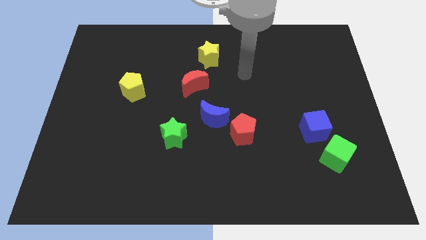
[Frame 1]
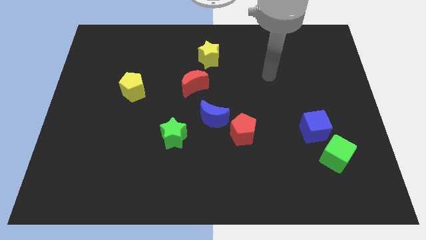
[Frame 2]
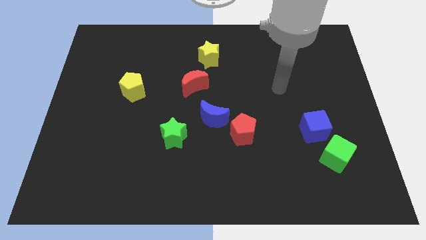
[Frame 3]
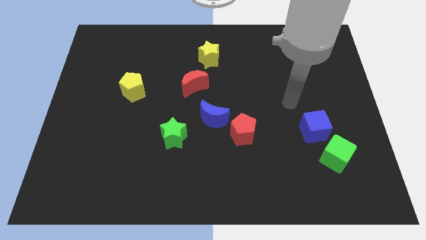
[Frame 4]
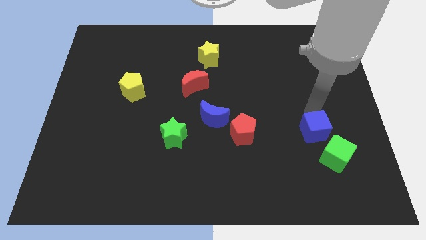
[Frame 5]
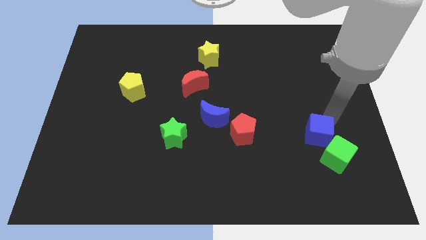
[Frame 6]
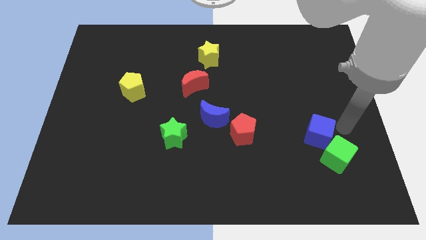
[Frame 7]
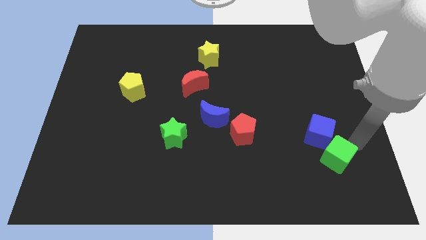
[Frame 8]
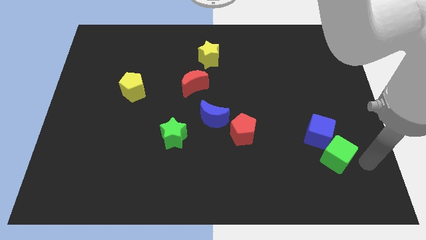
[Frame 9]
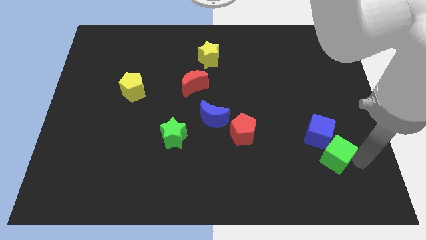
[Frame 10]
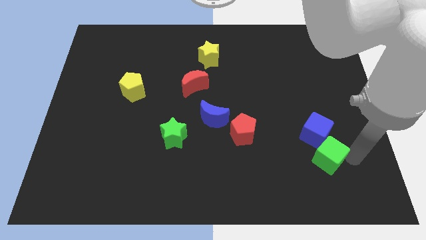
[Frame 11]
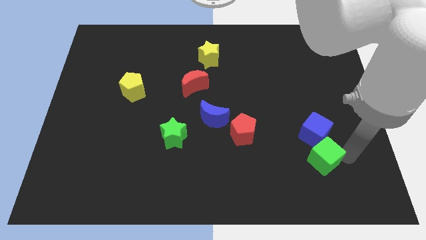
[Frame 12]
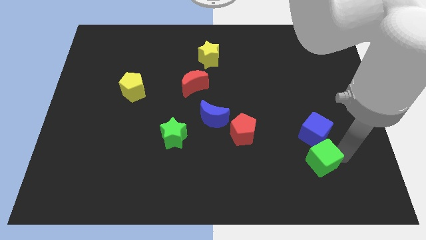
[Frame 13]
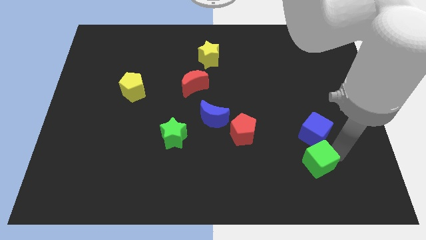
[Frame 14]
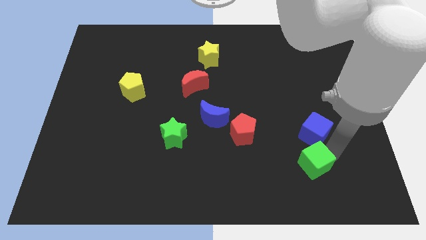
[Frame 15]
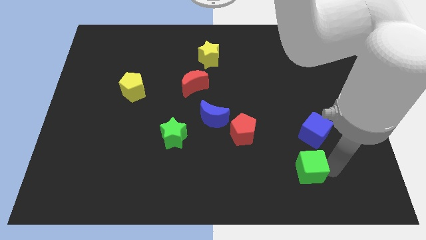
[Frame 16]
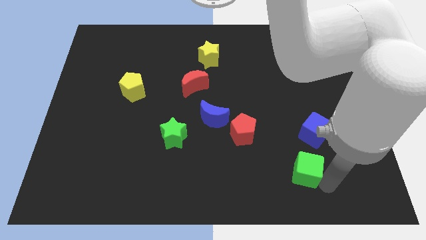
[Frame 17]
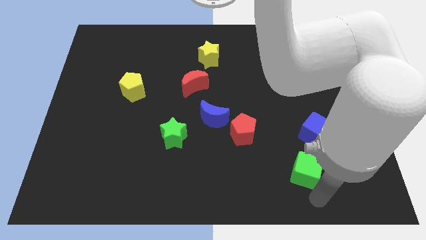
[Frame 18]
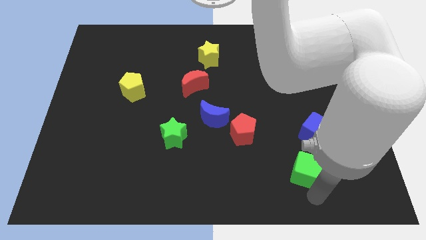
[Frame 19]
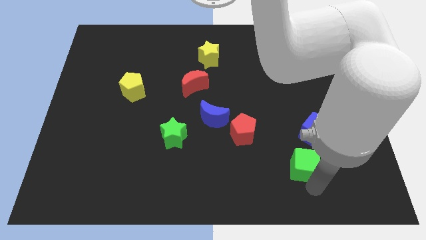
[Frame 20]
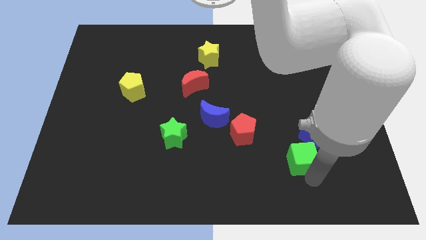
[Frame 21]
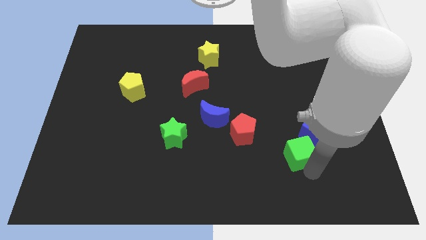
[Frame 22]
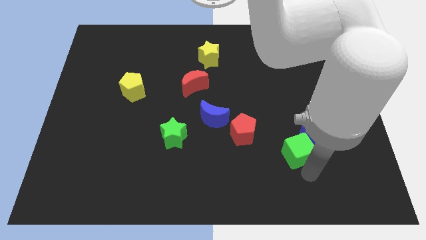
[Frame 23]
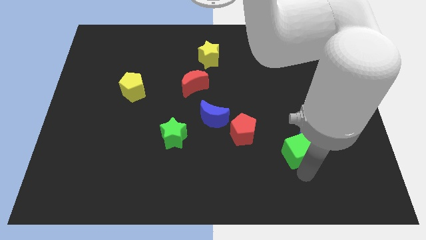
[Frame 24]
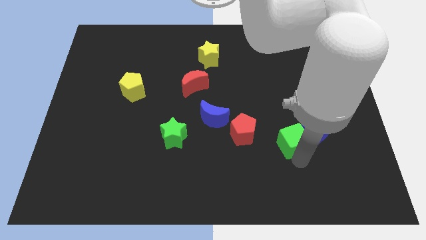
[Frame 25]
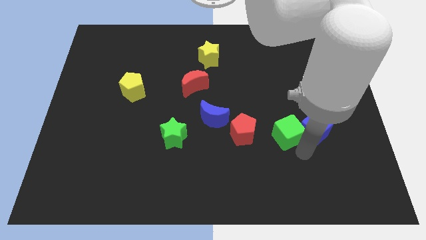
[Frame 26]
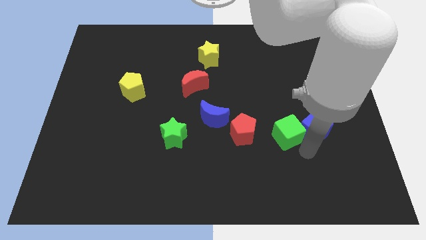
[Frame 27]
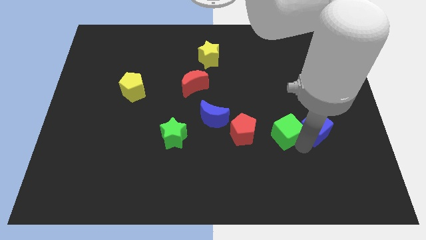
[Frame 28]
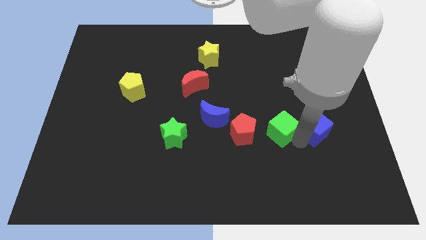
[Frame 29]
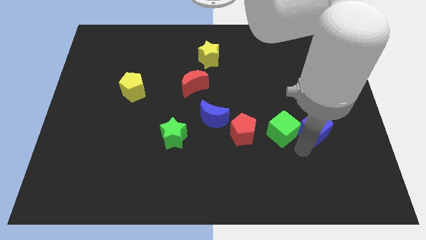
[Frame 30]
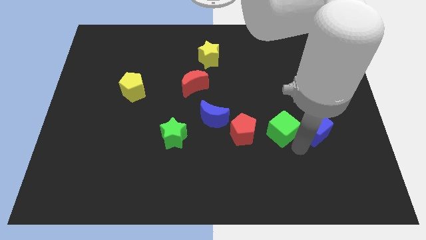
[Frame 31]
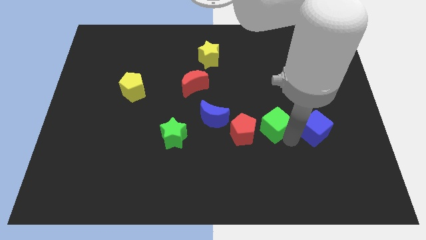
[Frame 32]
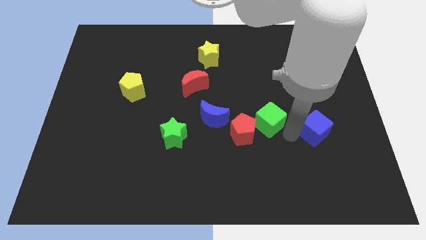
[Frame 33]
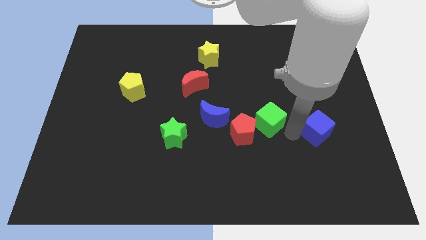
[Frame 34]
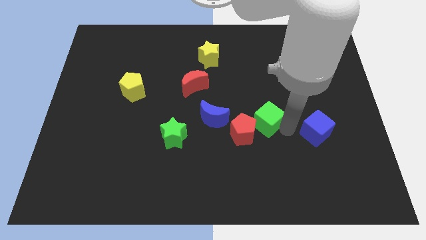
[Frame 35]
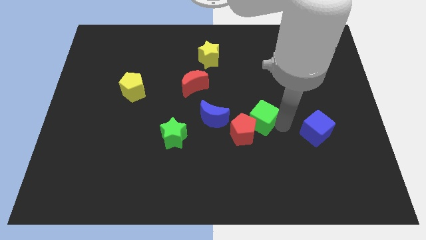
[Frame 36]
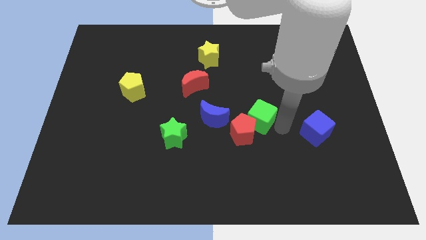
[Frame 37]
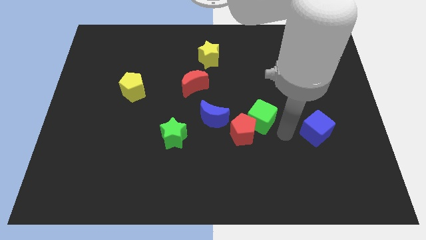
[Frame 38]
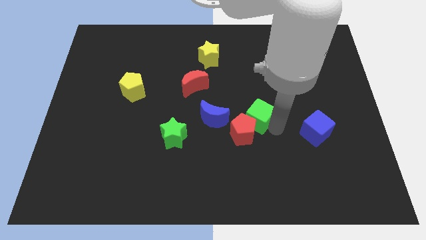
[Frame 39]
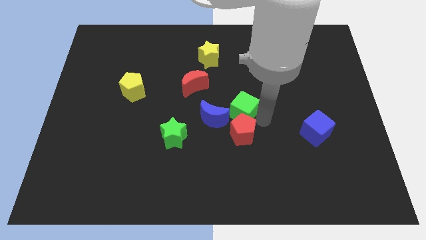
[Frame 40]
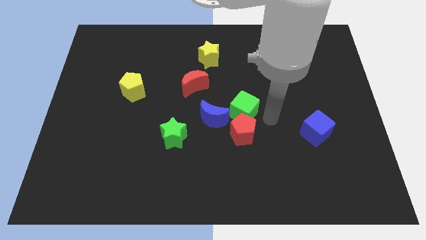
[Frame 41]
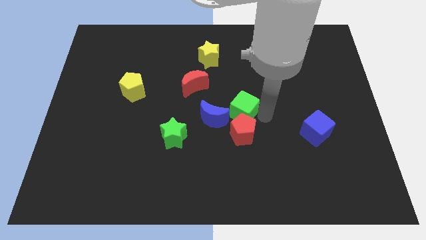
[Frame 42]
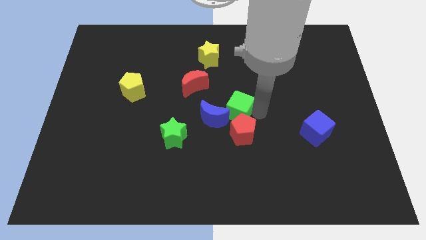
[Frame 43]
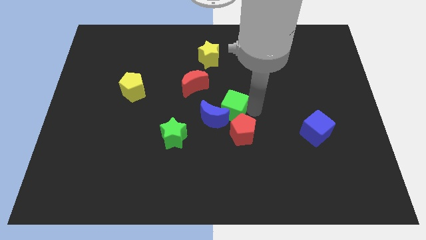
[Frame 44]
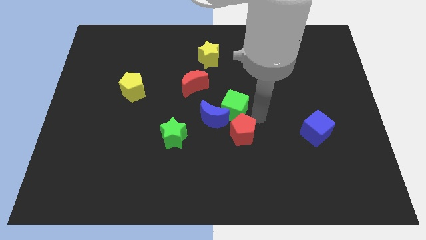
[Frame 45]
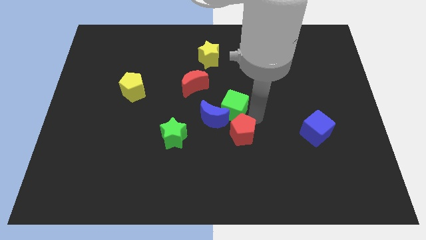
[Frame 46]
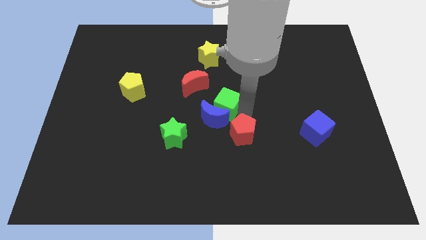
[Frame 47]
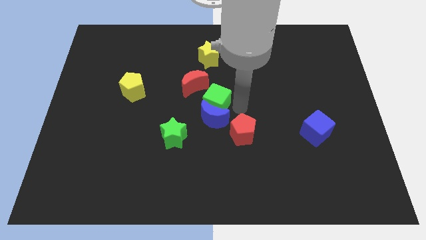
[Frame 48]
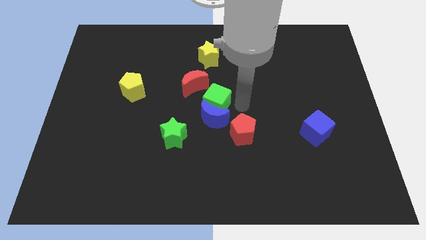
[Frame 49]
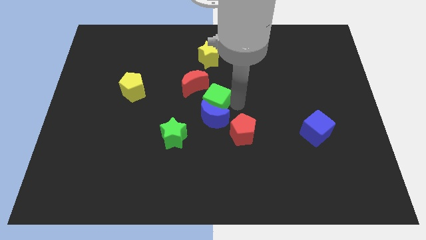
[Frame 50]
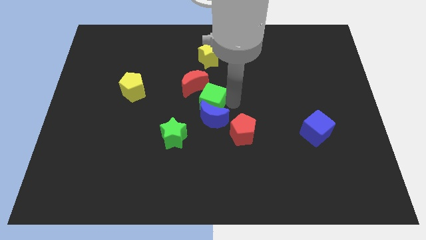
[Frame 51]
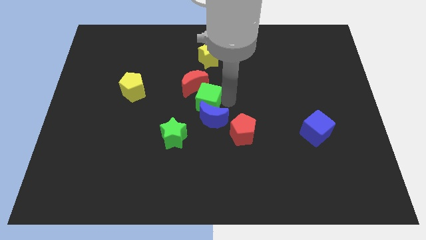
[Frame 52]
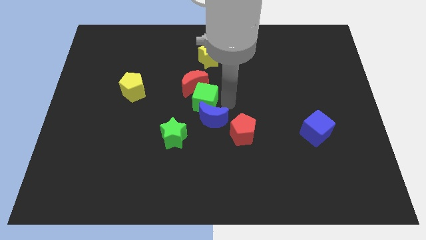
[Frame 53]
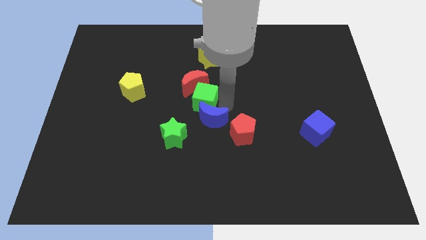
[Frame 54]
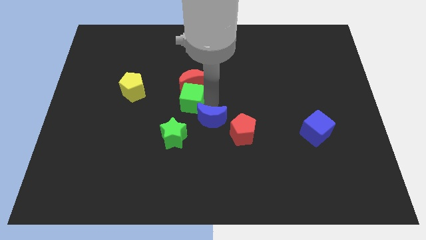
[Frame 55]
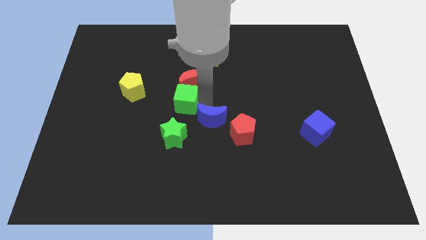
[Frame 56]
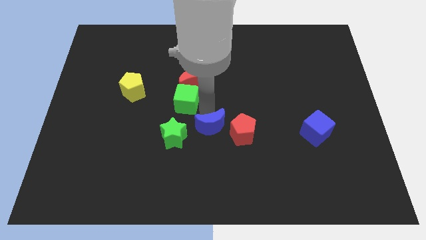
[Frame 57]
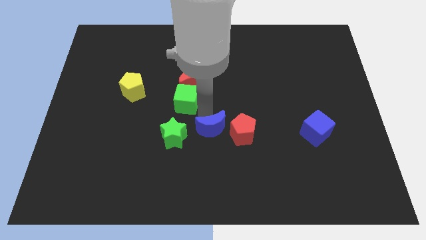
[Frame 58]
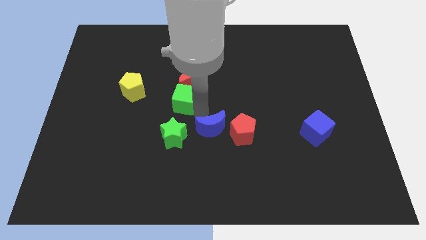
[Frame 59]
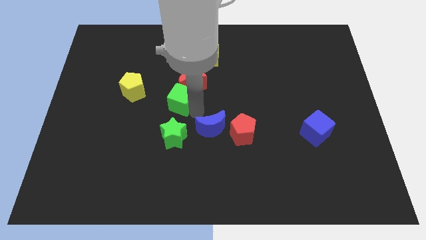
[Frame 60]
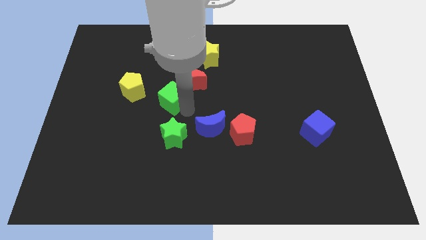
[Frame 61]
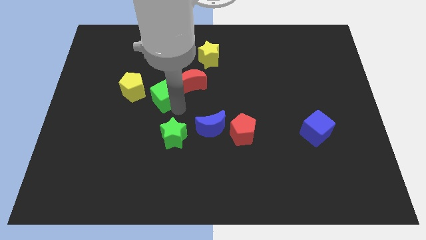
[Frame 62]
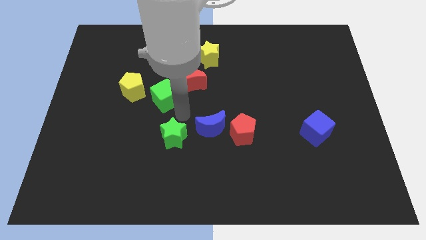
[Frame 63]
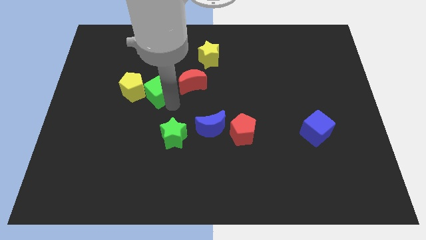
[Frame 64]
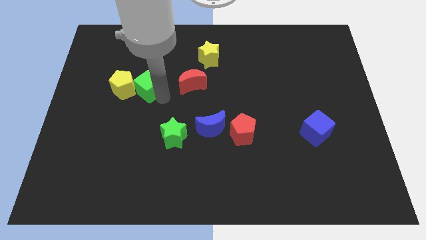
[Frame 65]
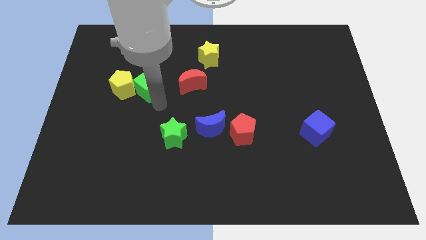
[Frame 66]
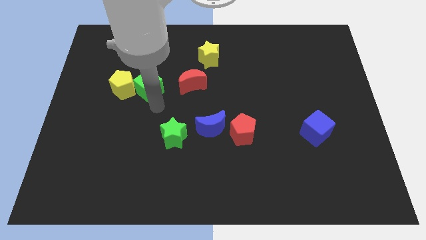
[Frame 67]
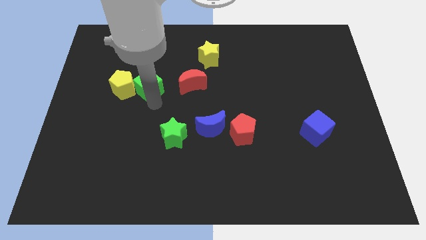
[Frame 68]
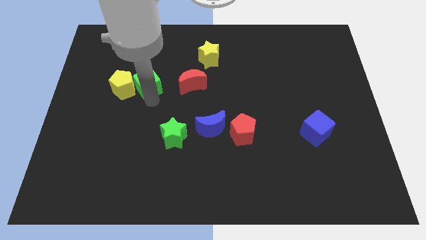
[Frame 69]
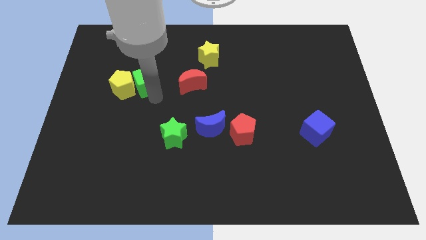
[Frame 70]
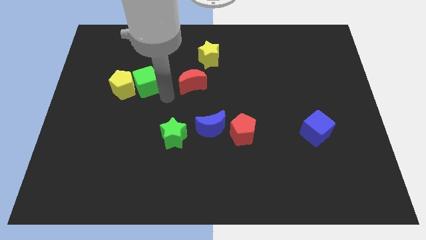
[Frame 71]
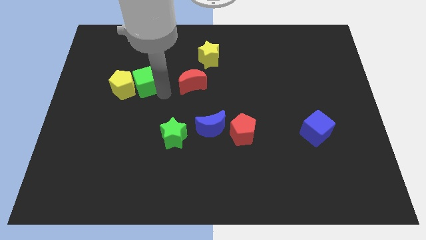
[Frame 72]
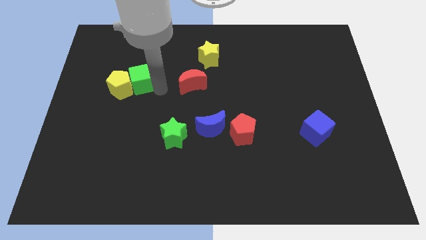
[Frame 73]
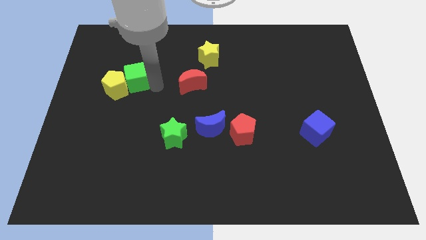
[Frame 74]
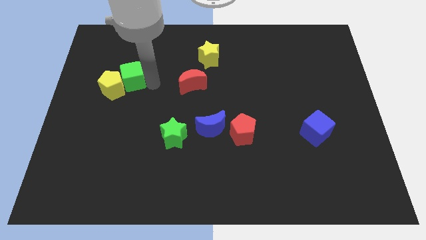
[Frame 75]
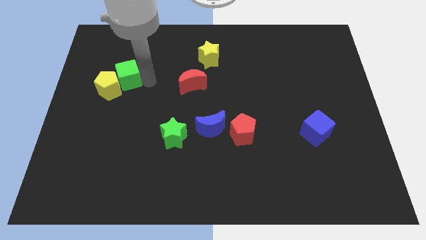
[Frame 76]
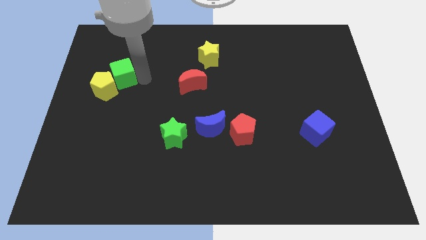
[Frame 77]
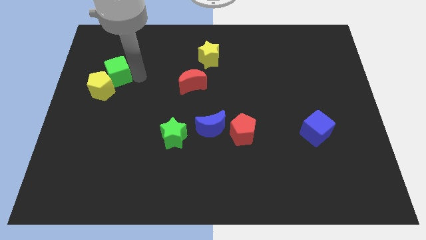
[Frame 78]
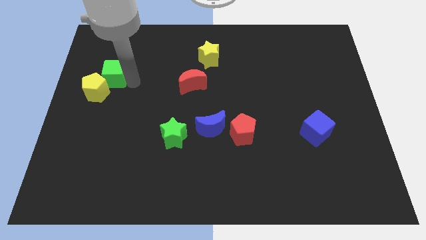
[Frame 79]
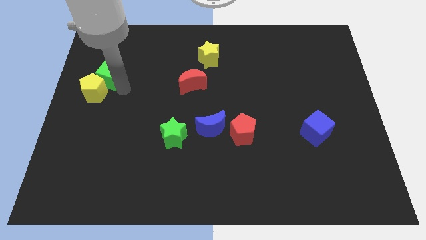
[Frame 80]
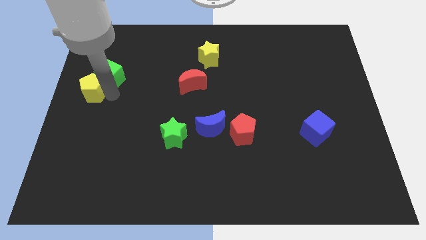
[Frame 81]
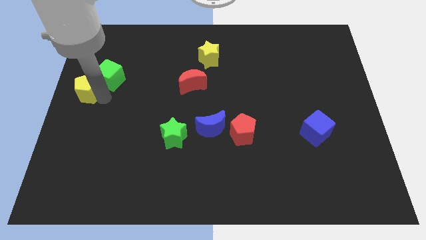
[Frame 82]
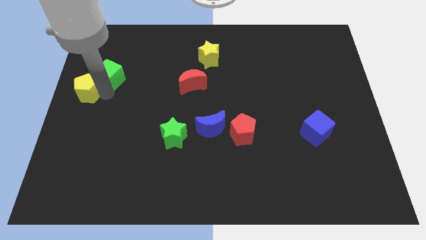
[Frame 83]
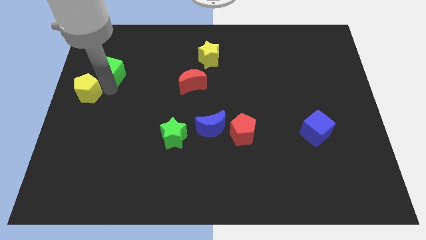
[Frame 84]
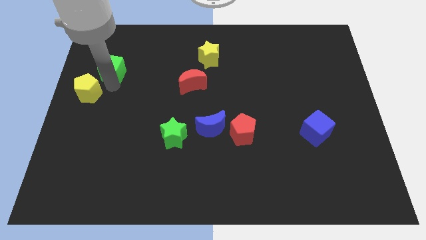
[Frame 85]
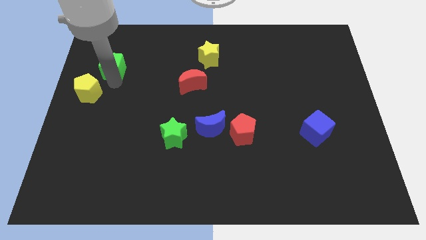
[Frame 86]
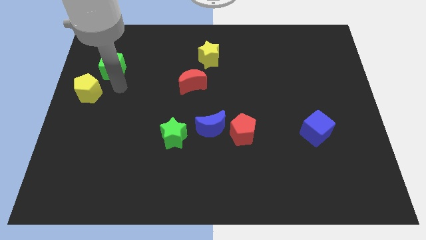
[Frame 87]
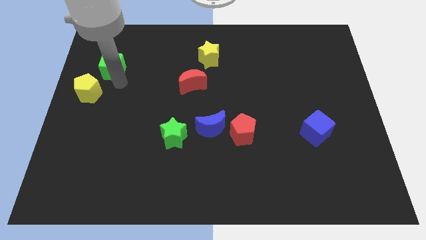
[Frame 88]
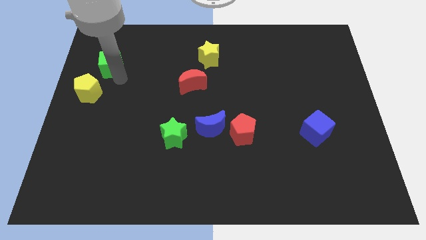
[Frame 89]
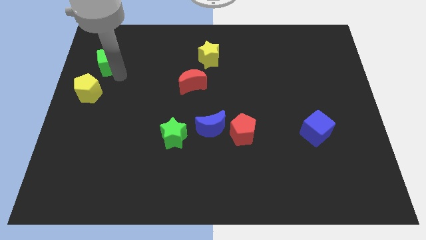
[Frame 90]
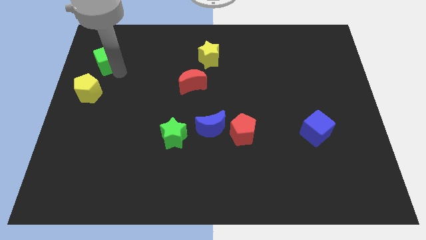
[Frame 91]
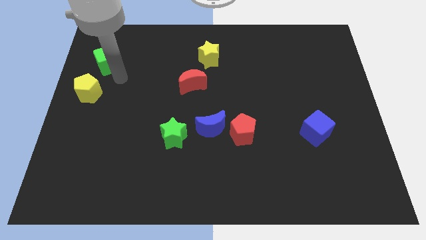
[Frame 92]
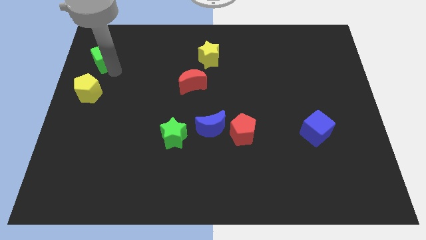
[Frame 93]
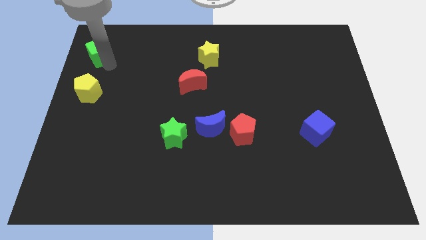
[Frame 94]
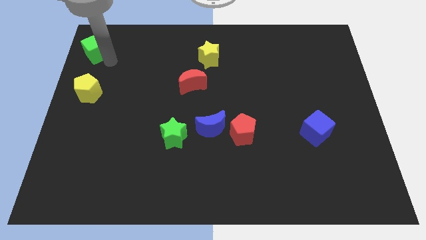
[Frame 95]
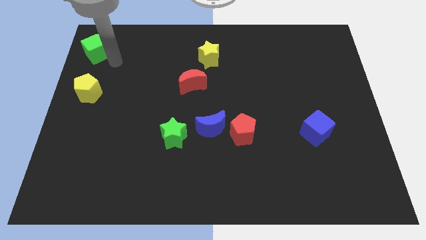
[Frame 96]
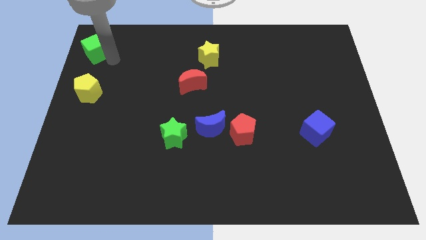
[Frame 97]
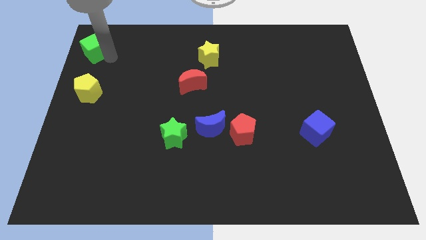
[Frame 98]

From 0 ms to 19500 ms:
put the green cube to the top left
